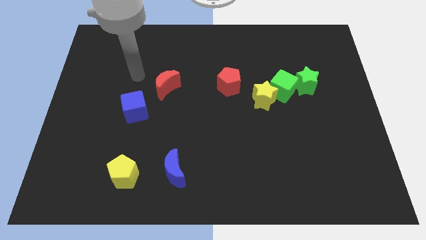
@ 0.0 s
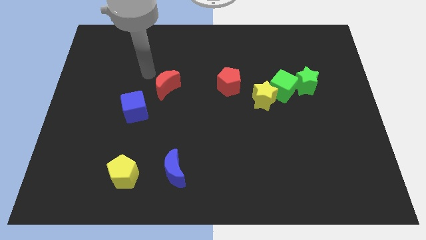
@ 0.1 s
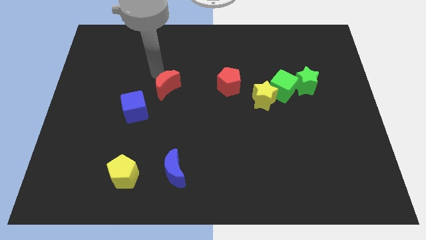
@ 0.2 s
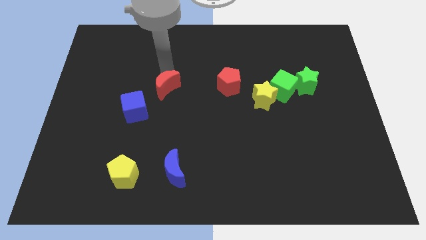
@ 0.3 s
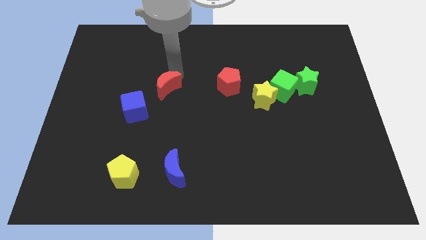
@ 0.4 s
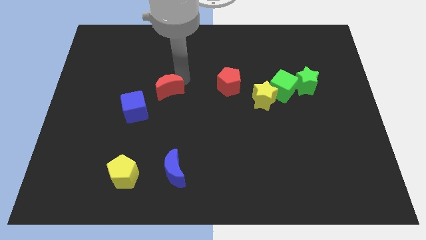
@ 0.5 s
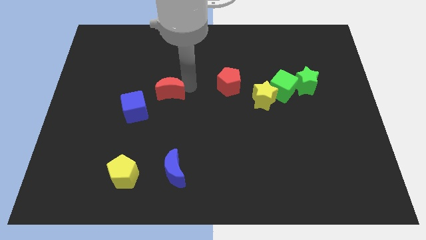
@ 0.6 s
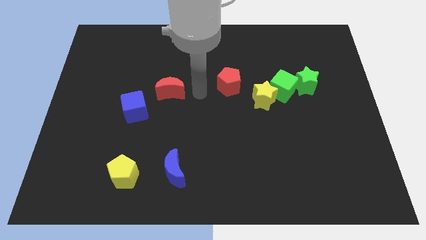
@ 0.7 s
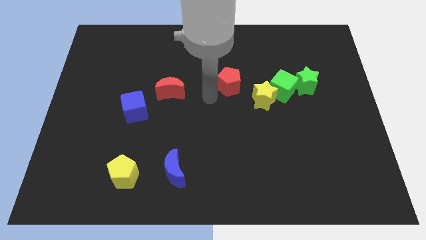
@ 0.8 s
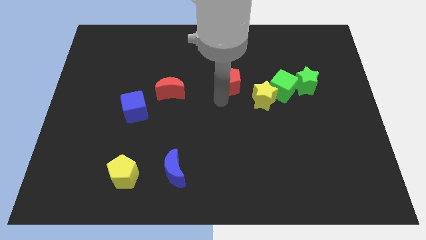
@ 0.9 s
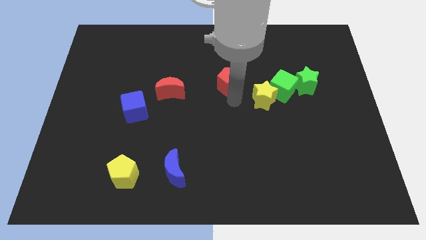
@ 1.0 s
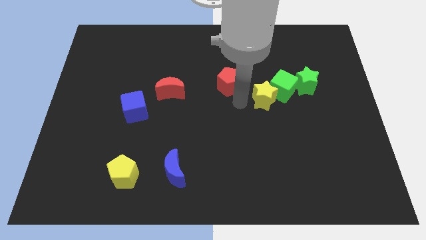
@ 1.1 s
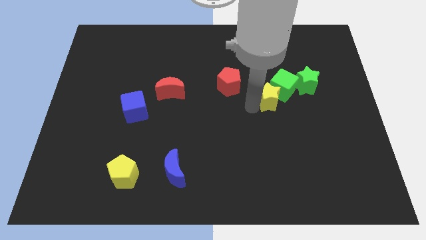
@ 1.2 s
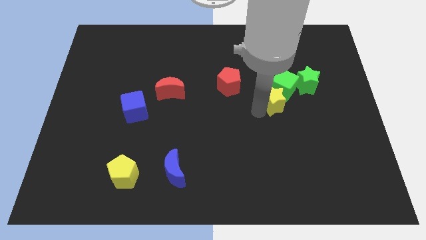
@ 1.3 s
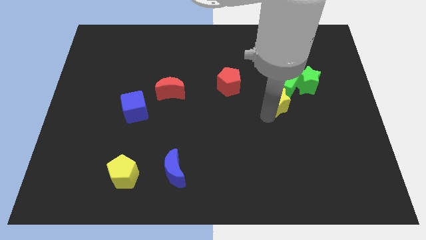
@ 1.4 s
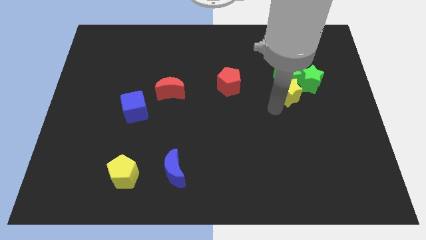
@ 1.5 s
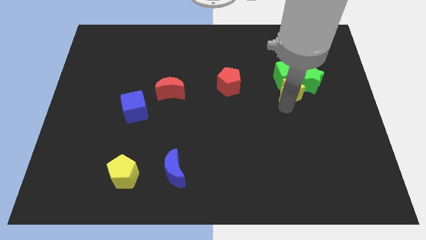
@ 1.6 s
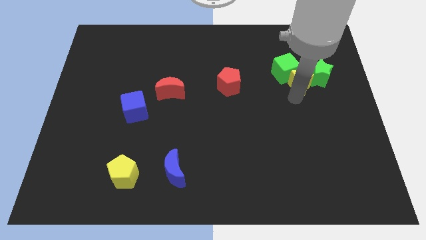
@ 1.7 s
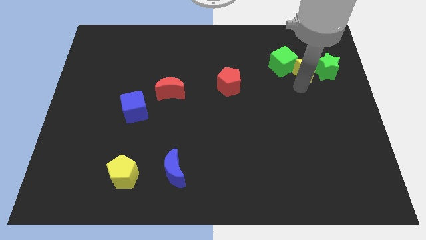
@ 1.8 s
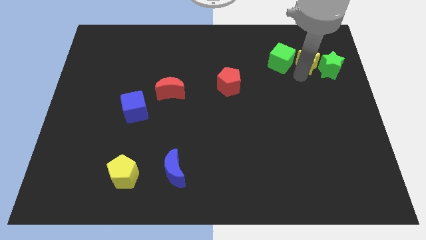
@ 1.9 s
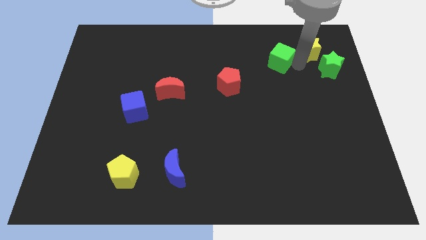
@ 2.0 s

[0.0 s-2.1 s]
pull the green cube apart from the yellow star and green star

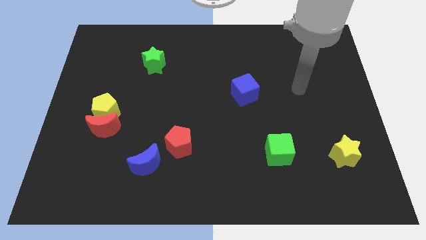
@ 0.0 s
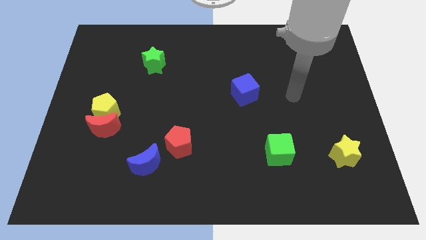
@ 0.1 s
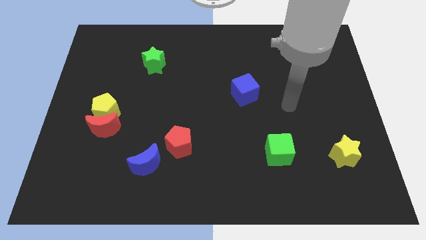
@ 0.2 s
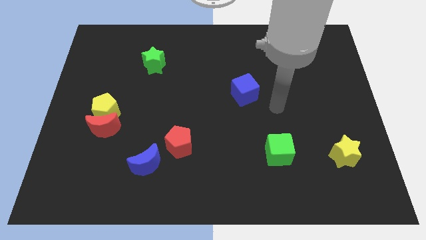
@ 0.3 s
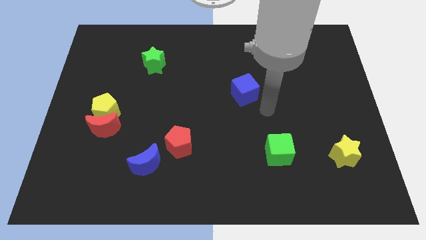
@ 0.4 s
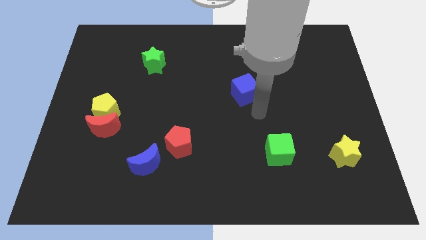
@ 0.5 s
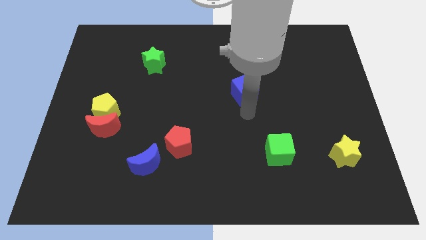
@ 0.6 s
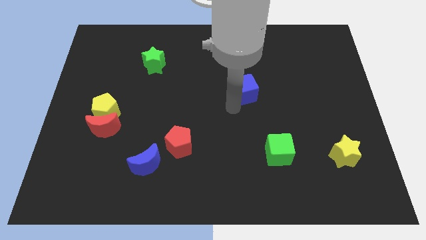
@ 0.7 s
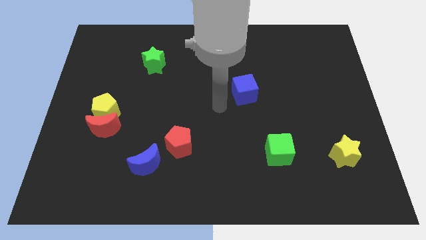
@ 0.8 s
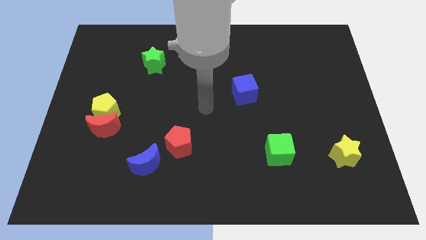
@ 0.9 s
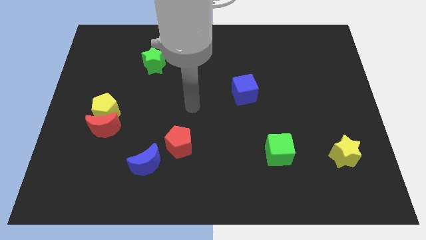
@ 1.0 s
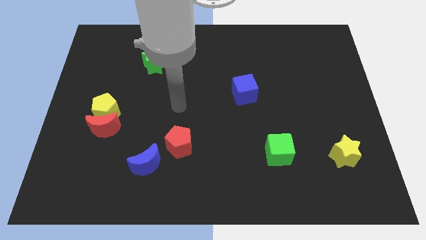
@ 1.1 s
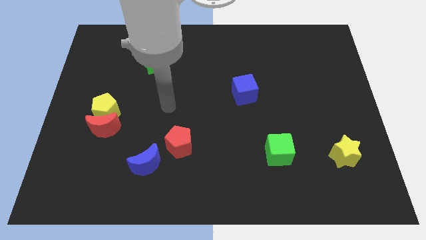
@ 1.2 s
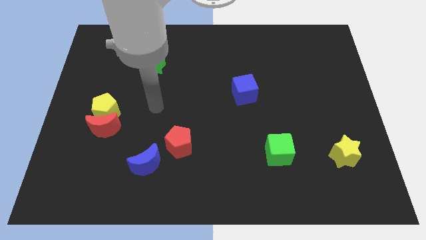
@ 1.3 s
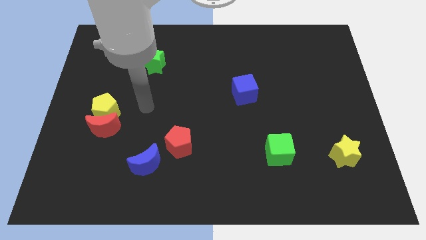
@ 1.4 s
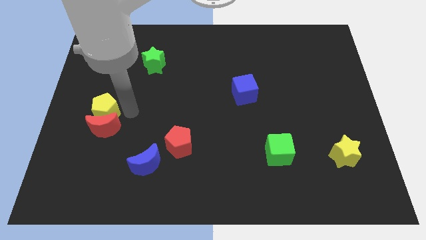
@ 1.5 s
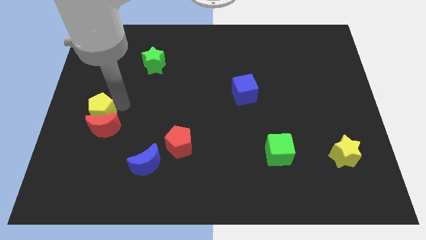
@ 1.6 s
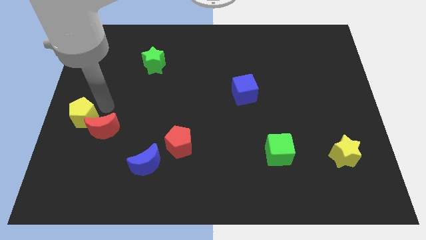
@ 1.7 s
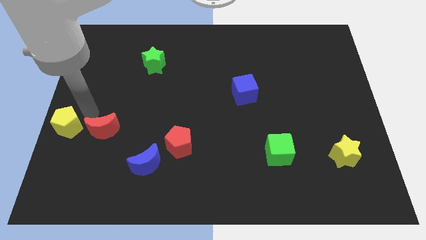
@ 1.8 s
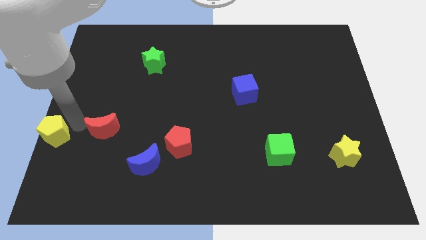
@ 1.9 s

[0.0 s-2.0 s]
pull the red moon apart from the yellow pentagon

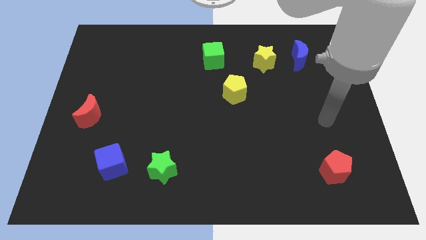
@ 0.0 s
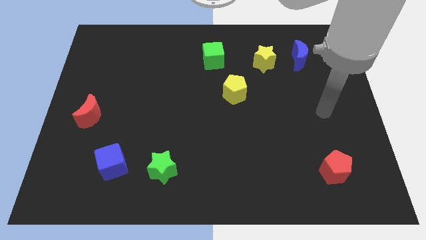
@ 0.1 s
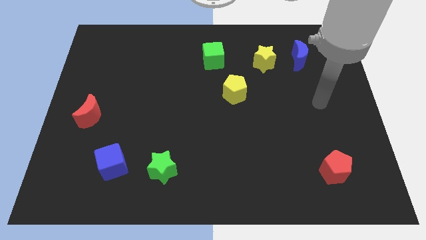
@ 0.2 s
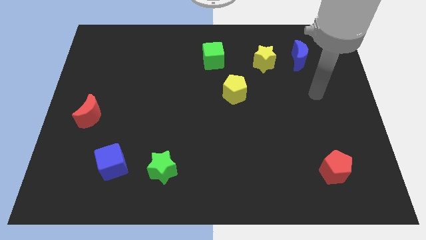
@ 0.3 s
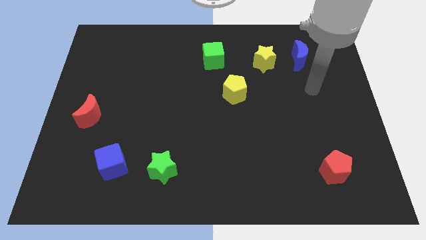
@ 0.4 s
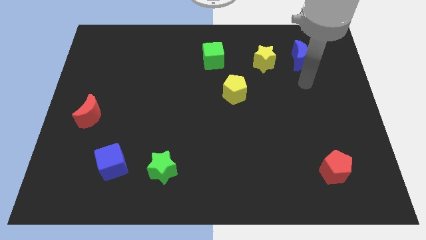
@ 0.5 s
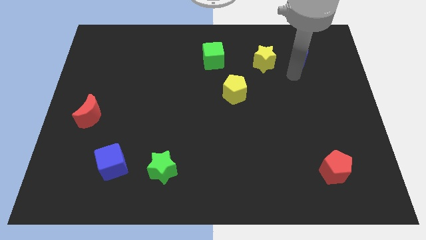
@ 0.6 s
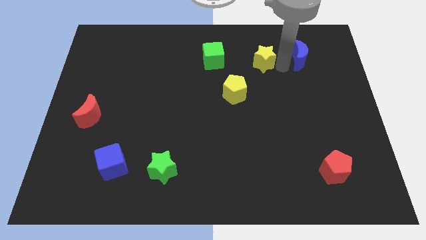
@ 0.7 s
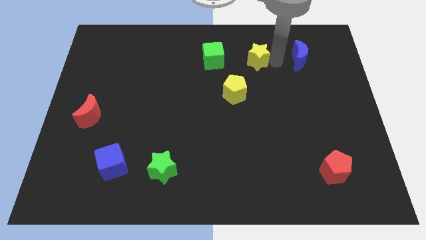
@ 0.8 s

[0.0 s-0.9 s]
separate the blue moon from the yellow star

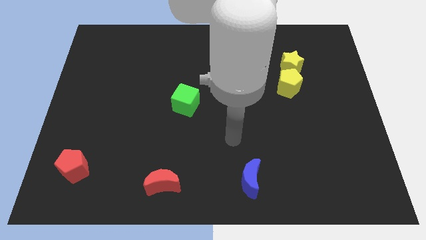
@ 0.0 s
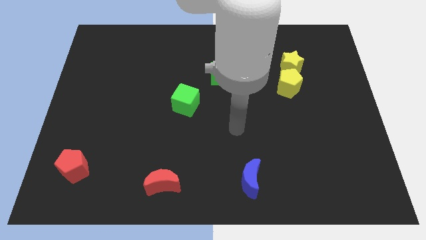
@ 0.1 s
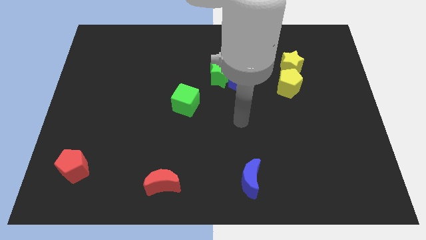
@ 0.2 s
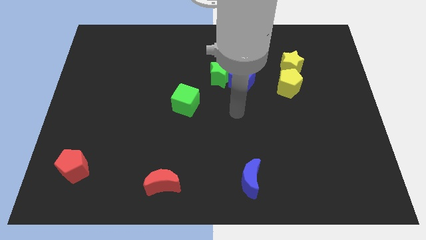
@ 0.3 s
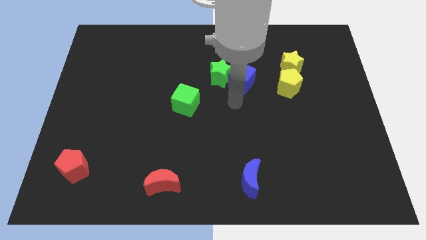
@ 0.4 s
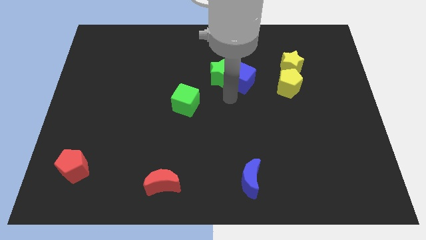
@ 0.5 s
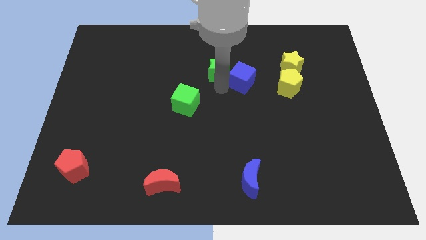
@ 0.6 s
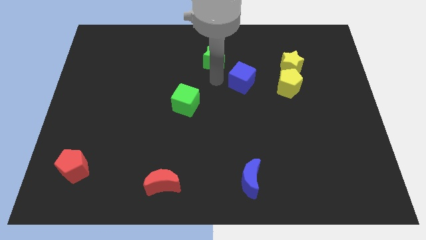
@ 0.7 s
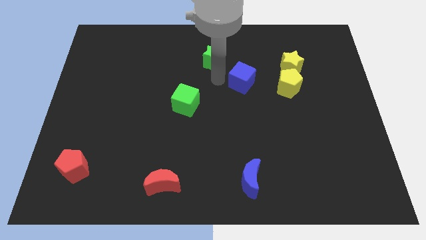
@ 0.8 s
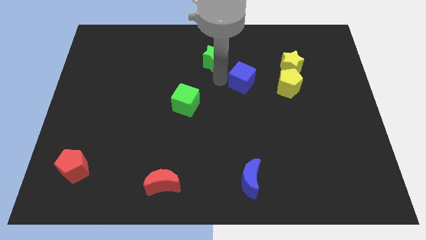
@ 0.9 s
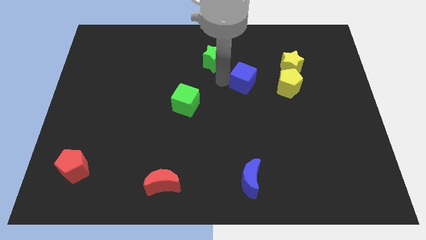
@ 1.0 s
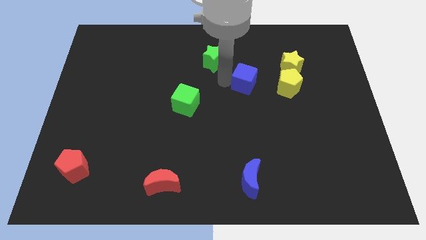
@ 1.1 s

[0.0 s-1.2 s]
pull the blue cube apart from the green star

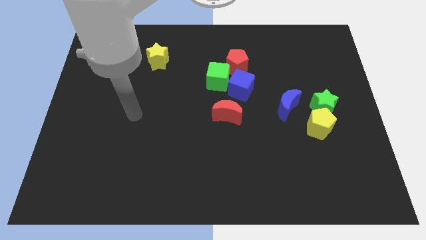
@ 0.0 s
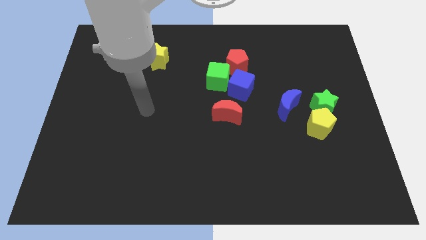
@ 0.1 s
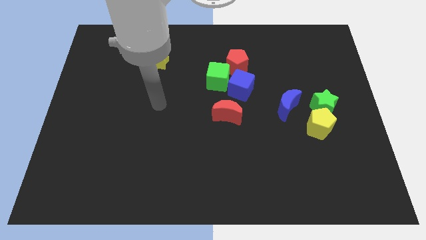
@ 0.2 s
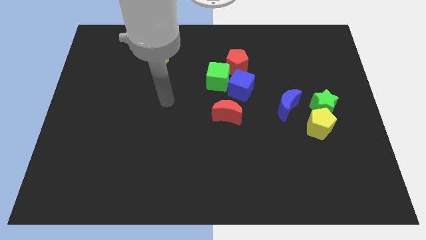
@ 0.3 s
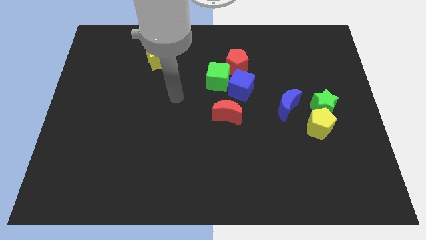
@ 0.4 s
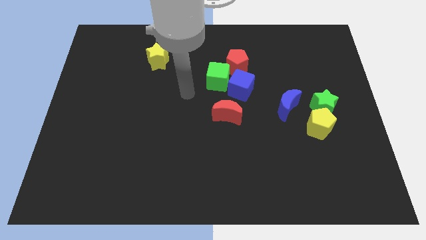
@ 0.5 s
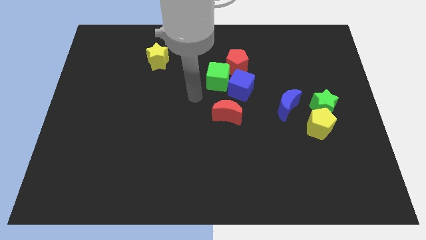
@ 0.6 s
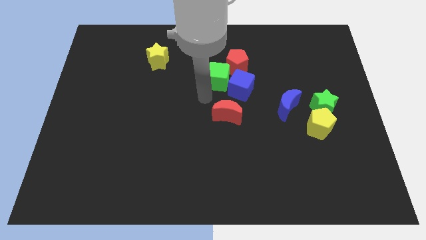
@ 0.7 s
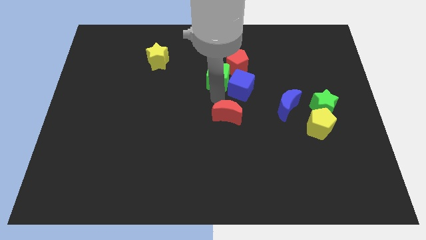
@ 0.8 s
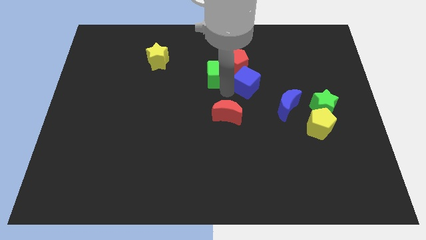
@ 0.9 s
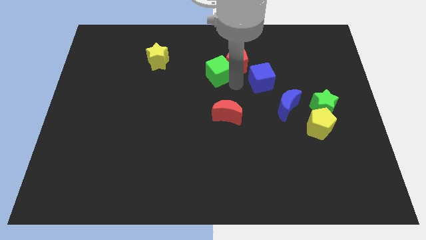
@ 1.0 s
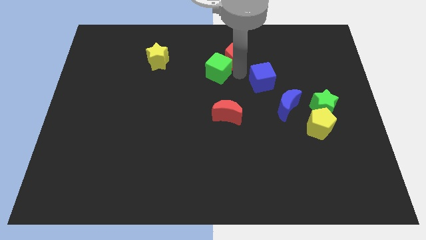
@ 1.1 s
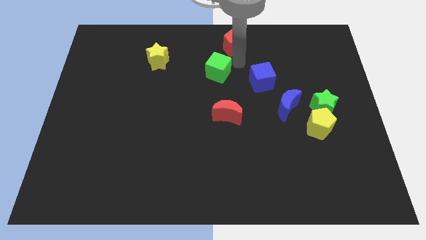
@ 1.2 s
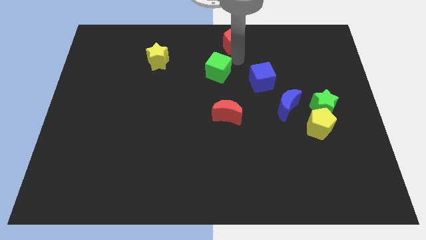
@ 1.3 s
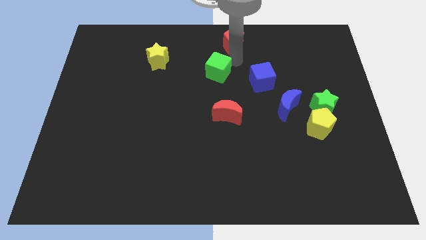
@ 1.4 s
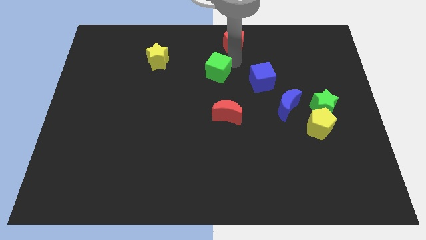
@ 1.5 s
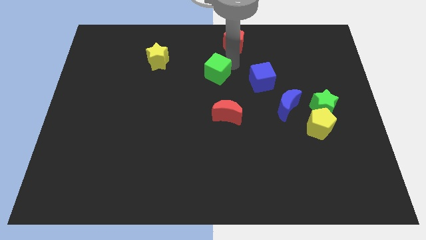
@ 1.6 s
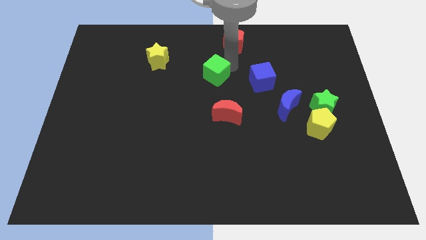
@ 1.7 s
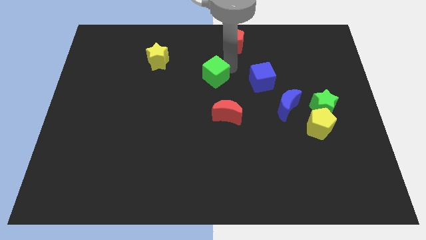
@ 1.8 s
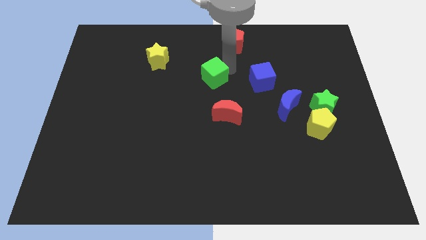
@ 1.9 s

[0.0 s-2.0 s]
pull the green cube apart from the blue cube and red pentagon

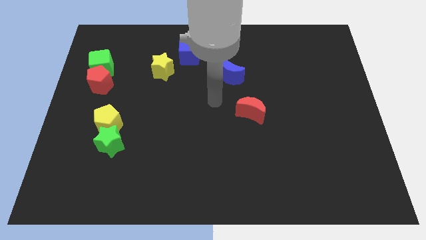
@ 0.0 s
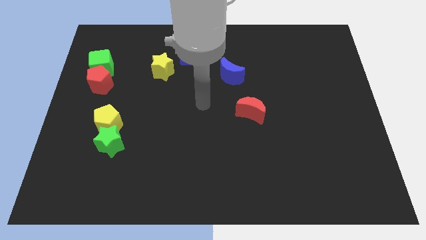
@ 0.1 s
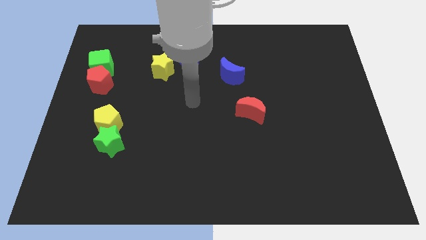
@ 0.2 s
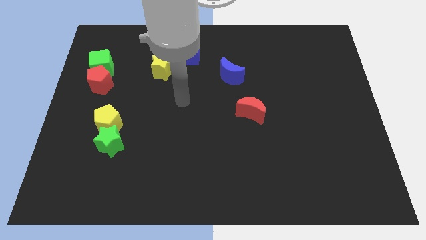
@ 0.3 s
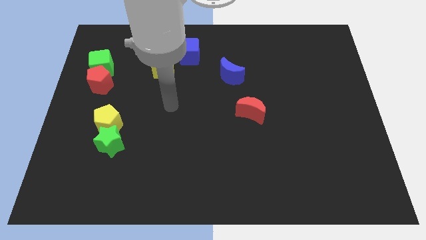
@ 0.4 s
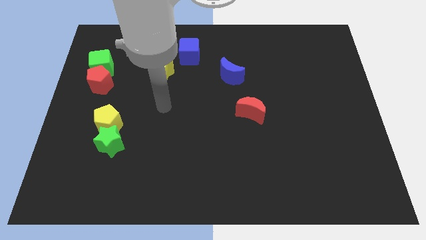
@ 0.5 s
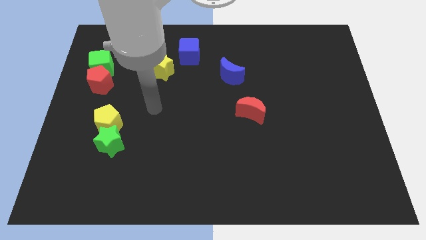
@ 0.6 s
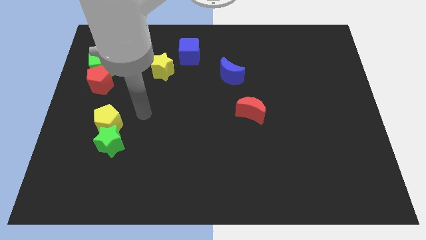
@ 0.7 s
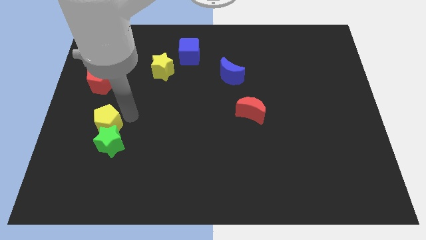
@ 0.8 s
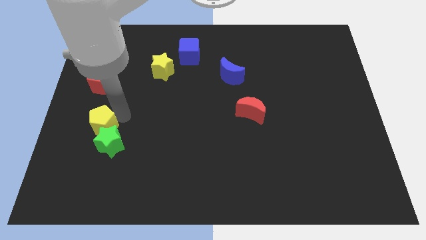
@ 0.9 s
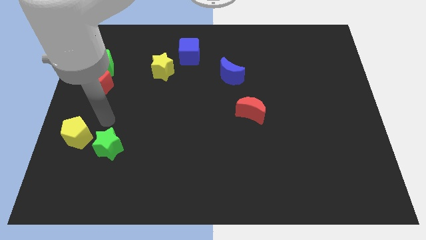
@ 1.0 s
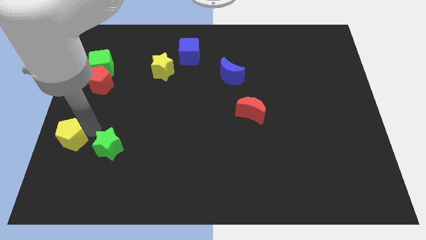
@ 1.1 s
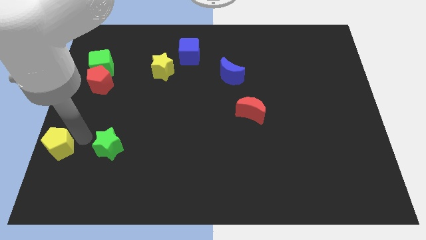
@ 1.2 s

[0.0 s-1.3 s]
move the green star away from the yellow pentagon
